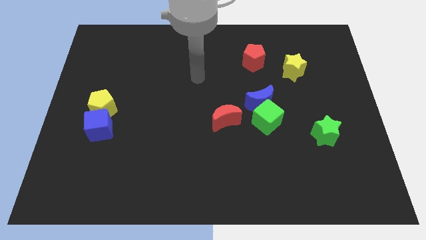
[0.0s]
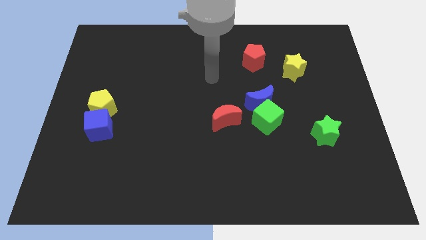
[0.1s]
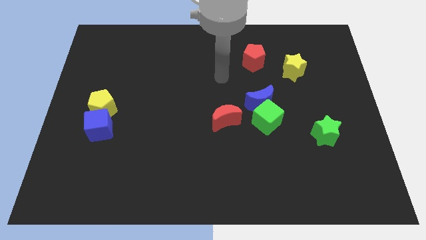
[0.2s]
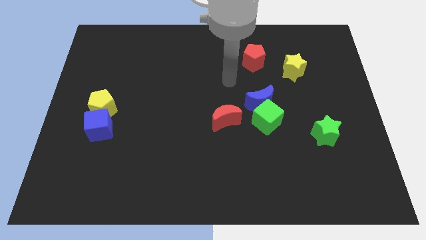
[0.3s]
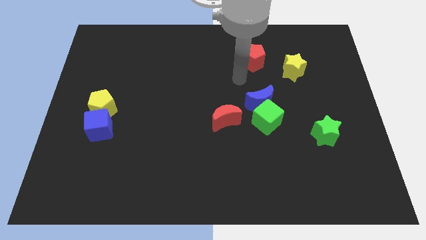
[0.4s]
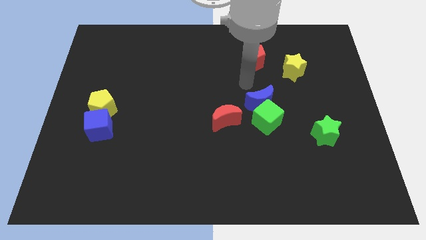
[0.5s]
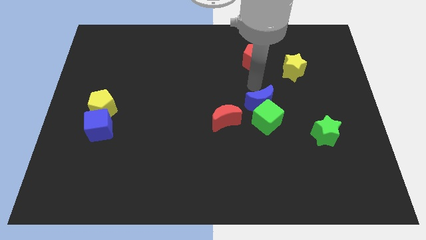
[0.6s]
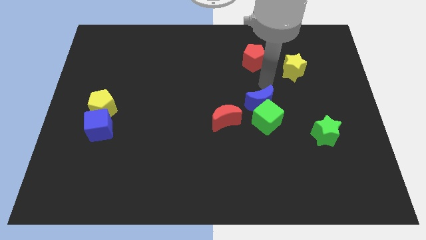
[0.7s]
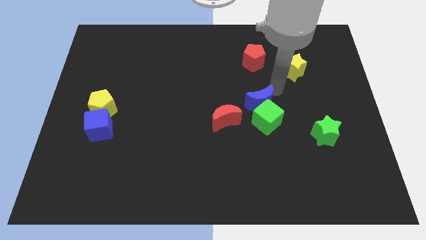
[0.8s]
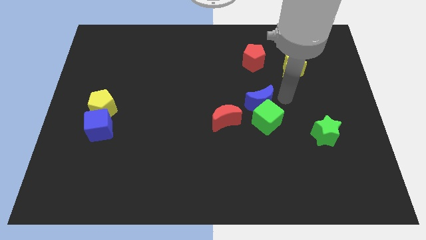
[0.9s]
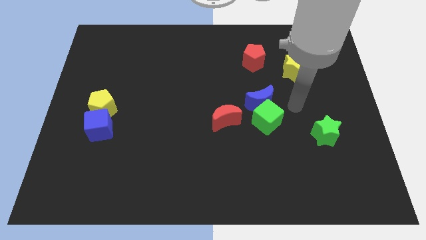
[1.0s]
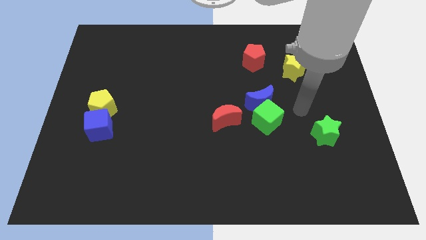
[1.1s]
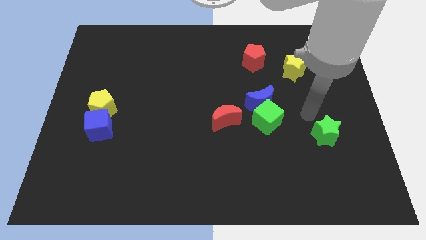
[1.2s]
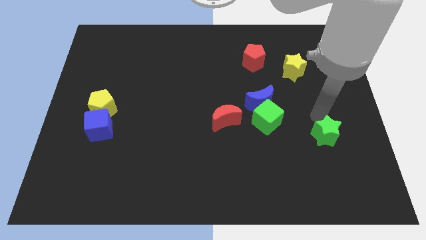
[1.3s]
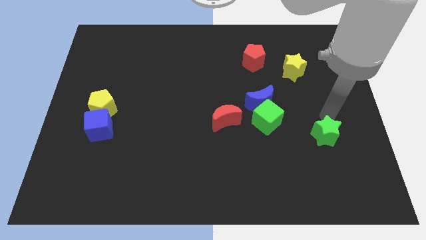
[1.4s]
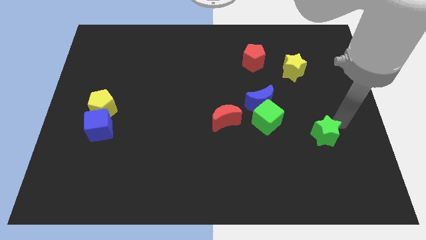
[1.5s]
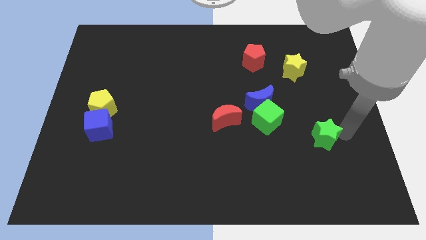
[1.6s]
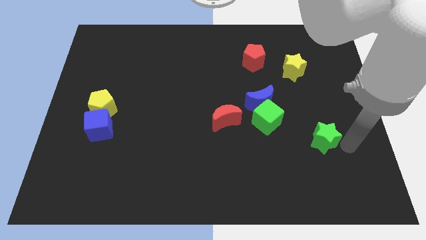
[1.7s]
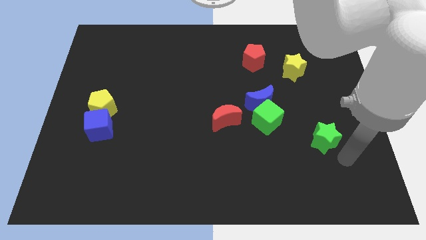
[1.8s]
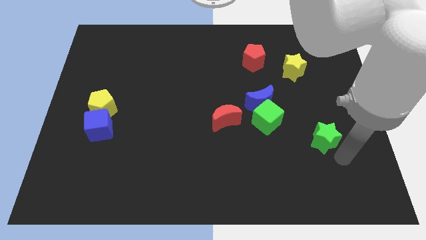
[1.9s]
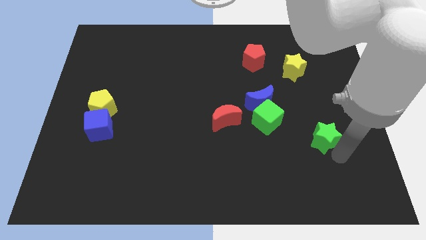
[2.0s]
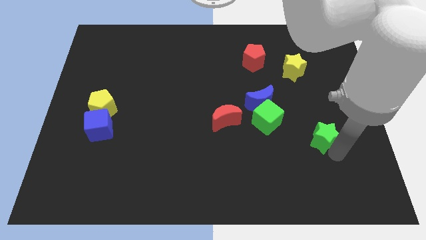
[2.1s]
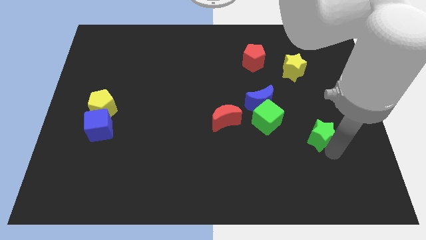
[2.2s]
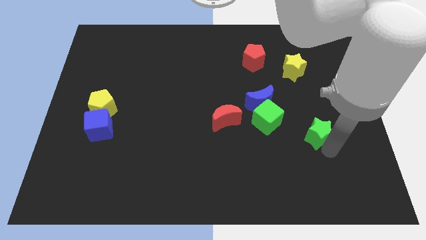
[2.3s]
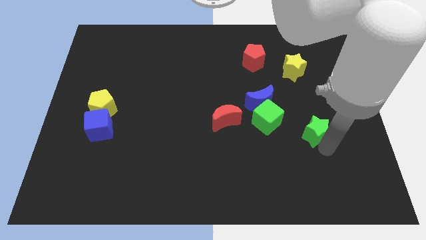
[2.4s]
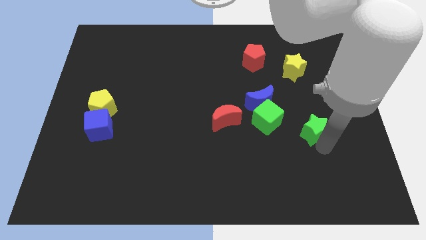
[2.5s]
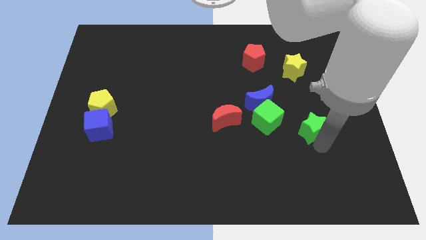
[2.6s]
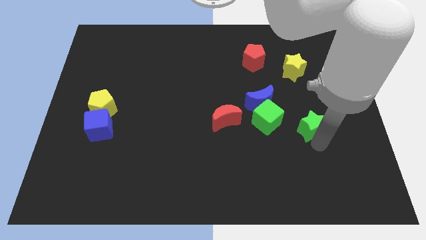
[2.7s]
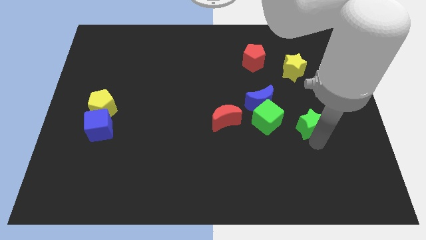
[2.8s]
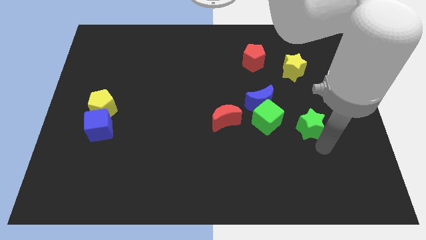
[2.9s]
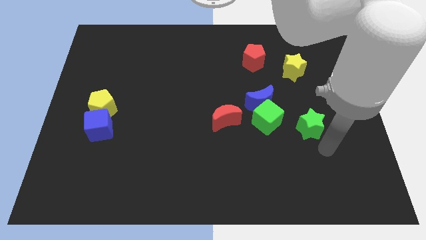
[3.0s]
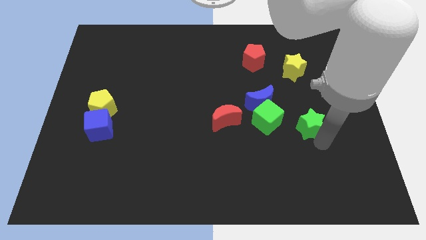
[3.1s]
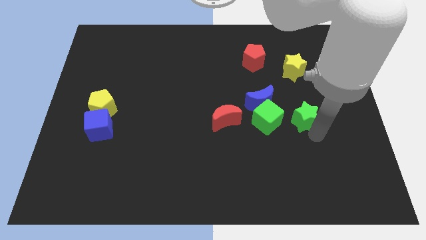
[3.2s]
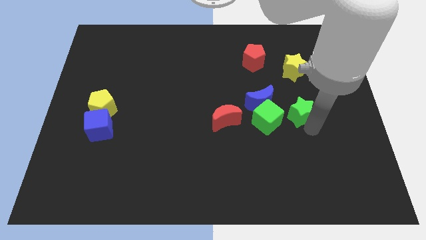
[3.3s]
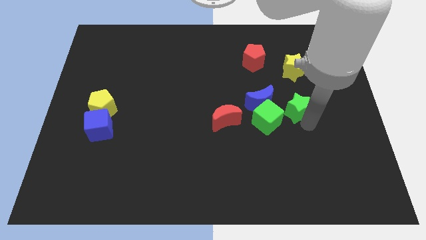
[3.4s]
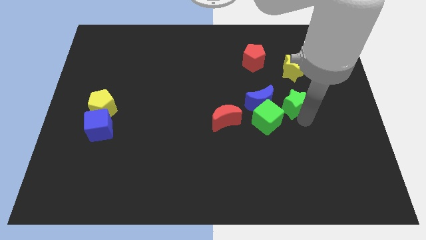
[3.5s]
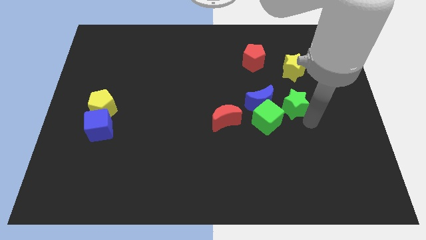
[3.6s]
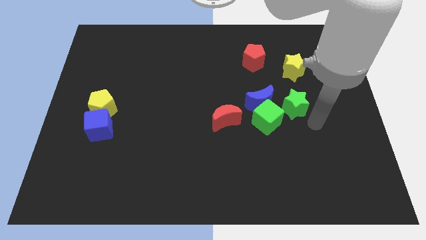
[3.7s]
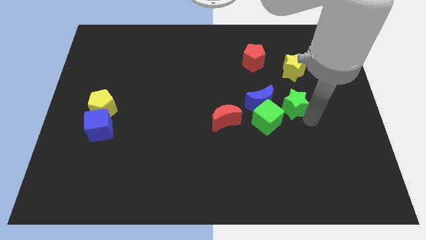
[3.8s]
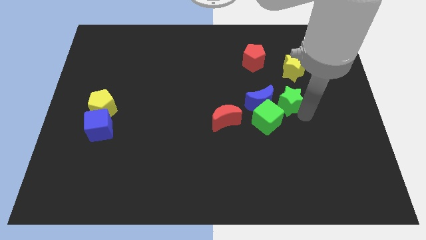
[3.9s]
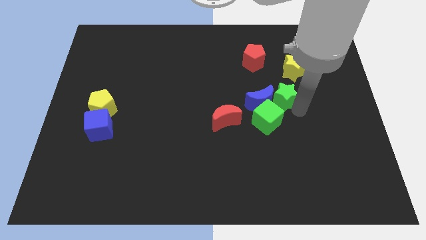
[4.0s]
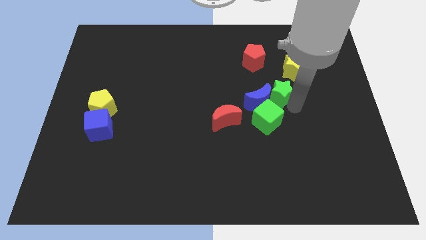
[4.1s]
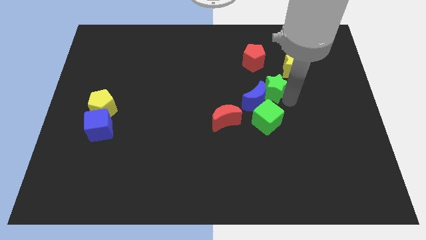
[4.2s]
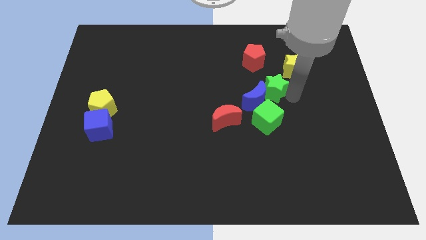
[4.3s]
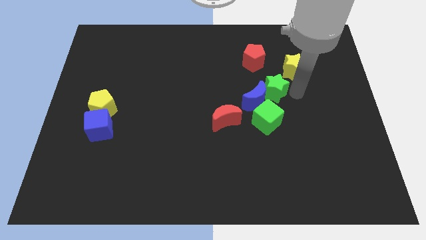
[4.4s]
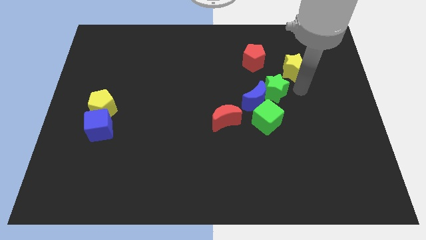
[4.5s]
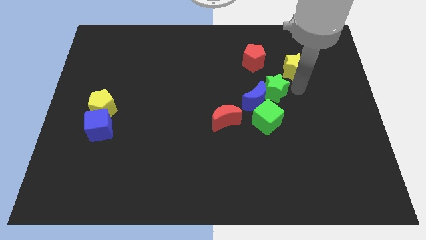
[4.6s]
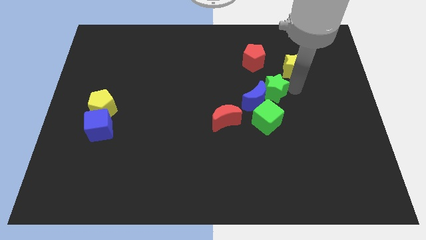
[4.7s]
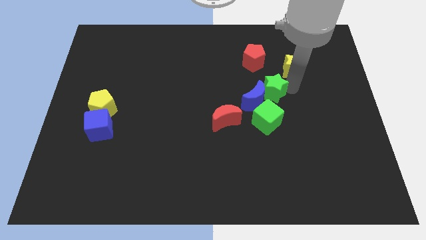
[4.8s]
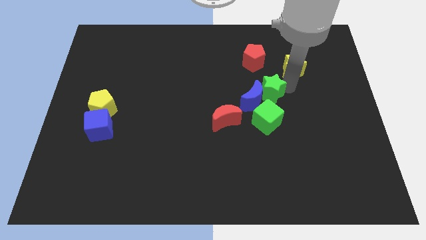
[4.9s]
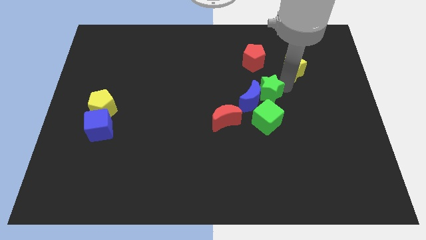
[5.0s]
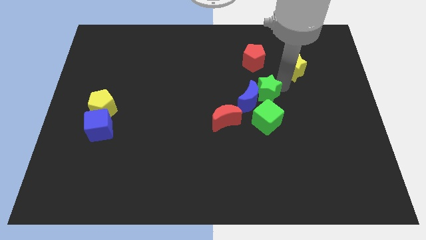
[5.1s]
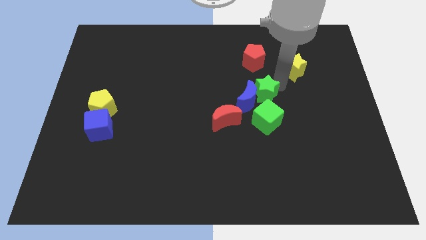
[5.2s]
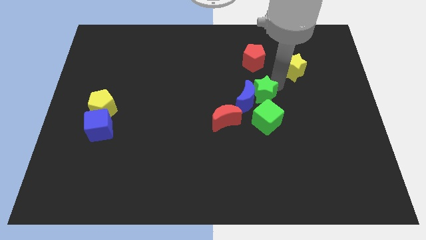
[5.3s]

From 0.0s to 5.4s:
push the green star to the center

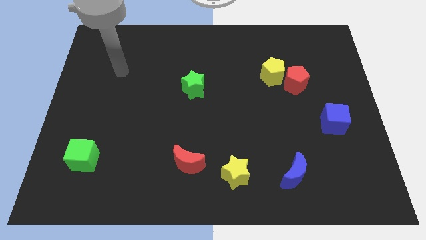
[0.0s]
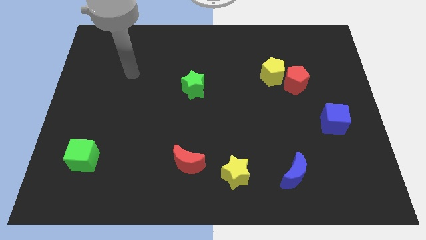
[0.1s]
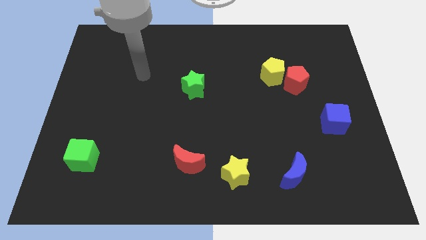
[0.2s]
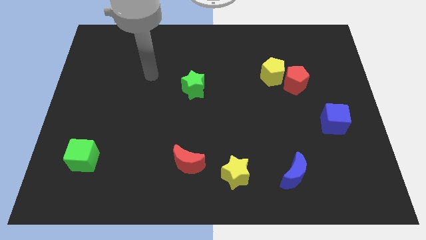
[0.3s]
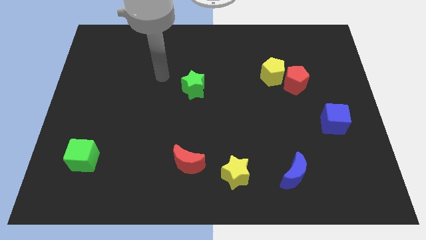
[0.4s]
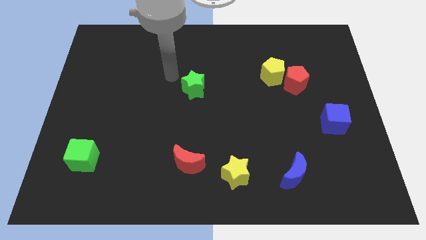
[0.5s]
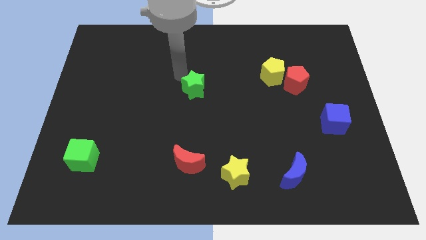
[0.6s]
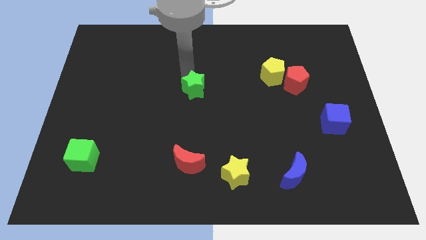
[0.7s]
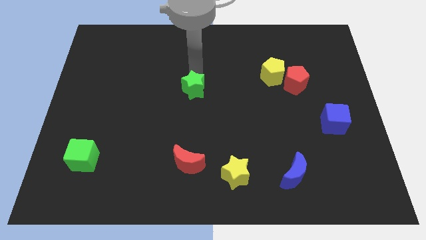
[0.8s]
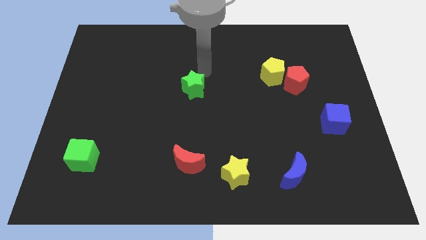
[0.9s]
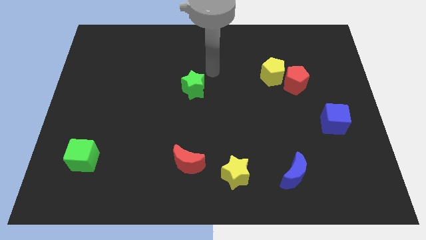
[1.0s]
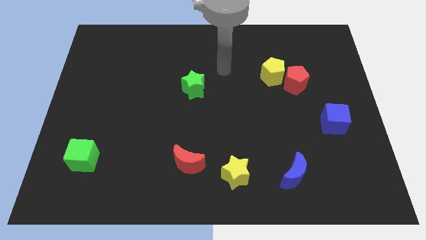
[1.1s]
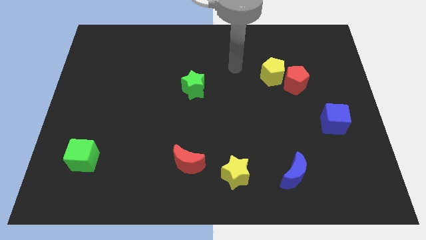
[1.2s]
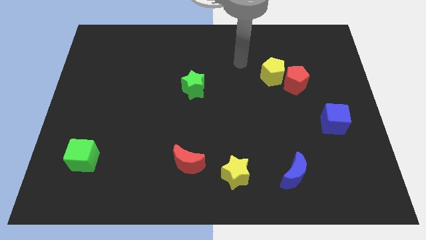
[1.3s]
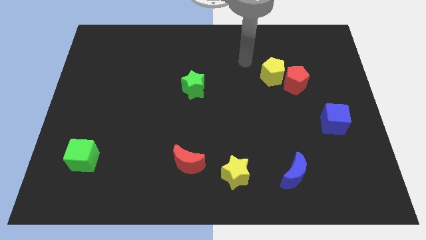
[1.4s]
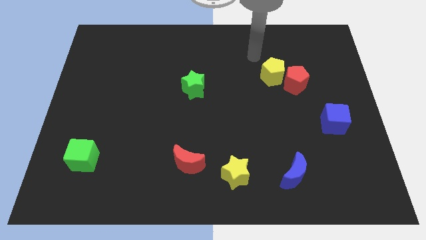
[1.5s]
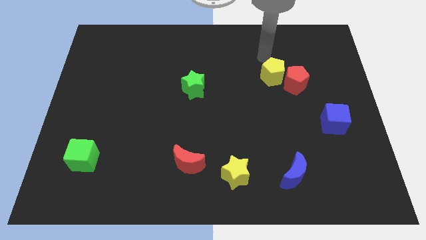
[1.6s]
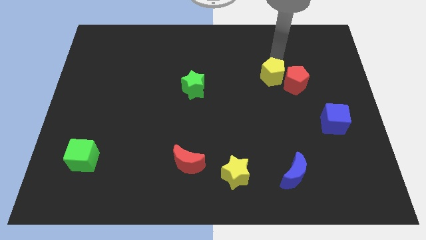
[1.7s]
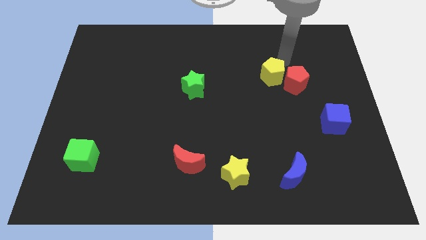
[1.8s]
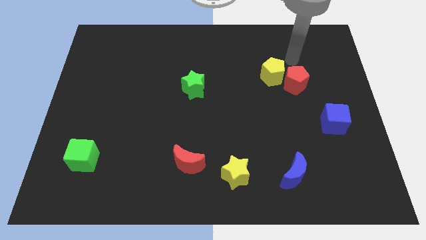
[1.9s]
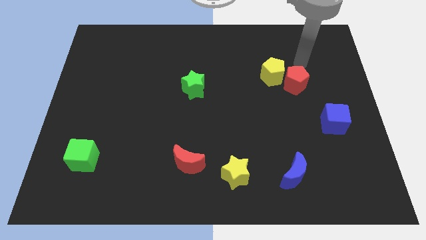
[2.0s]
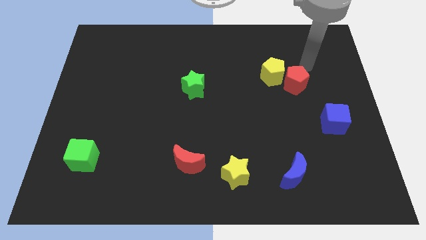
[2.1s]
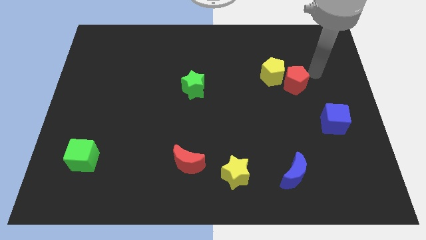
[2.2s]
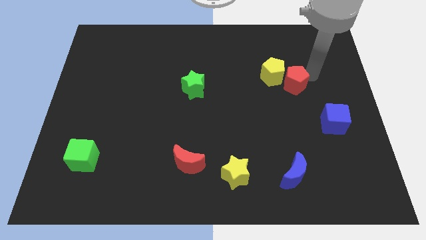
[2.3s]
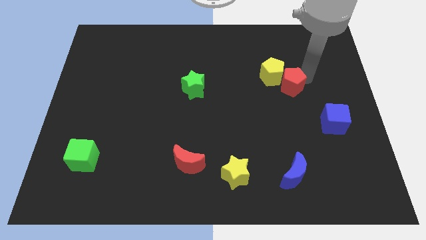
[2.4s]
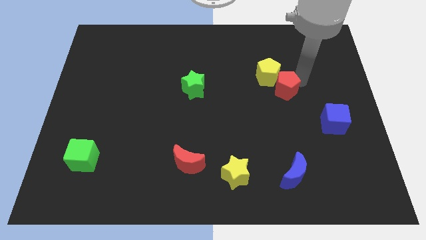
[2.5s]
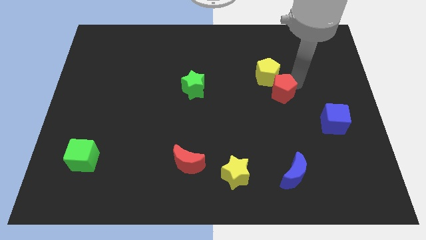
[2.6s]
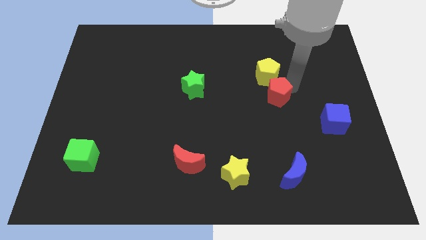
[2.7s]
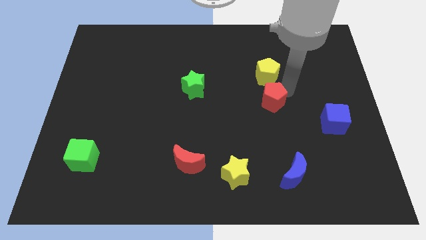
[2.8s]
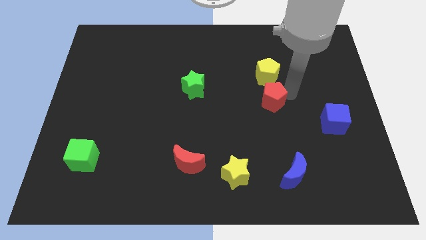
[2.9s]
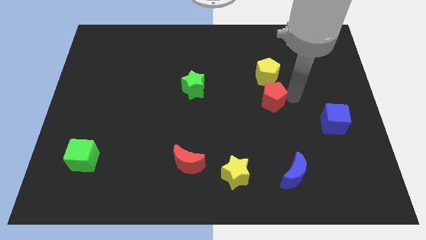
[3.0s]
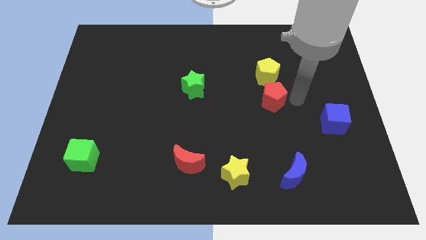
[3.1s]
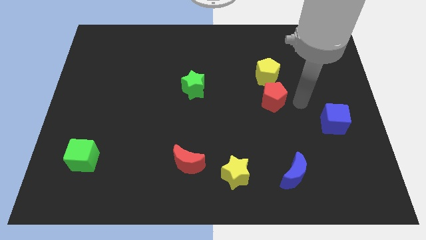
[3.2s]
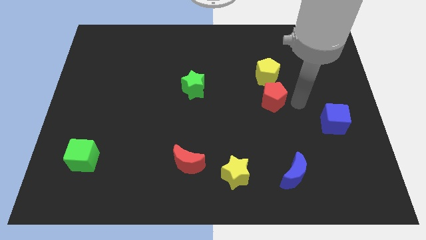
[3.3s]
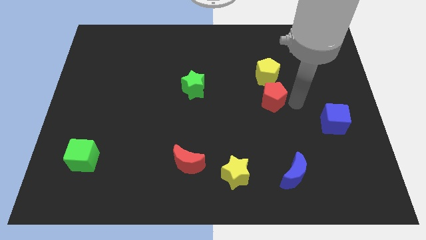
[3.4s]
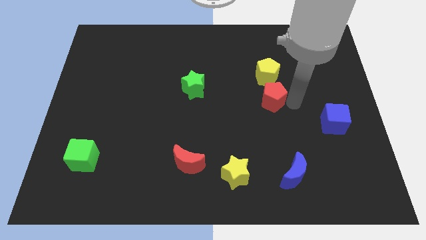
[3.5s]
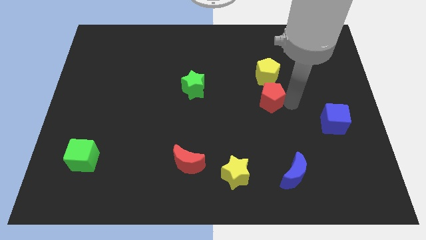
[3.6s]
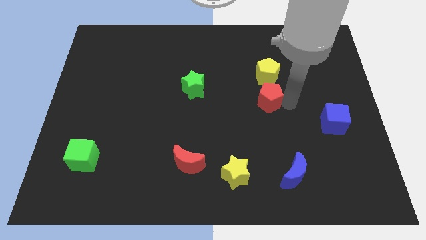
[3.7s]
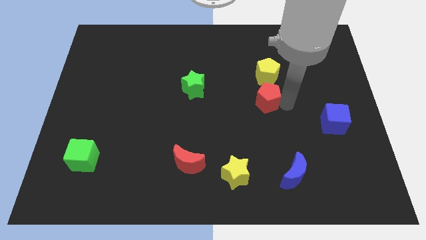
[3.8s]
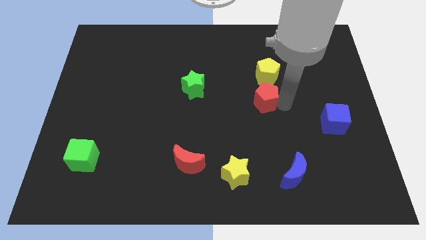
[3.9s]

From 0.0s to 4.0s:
slide the red pentagon to the middle
